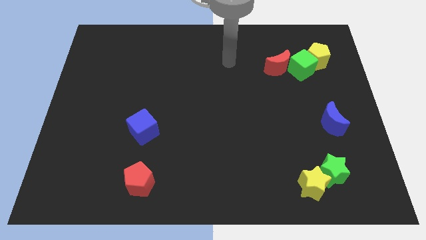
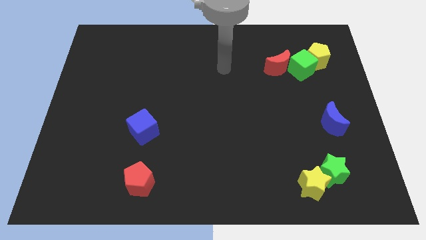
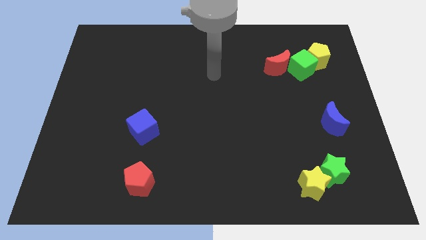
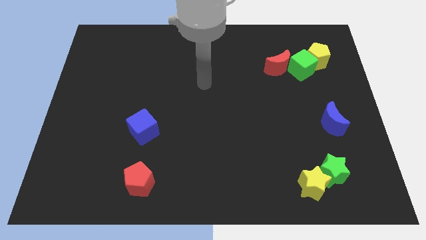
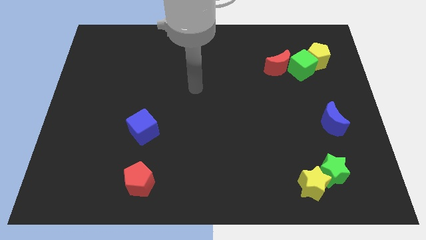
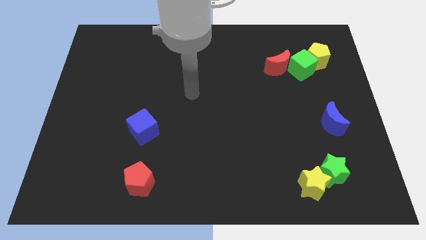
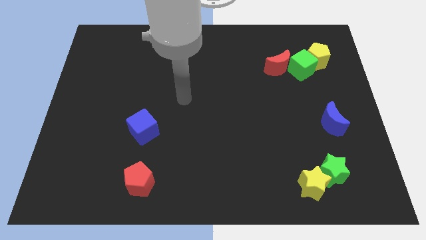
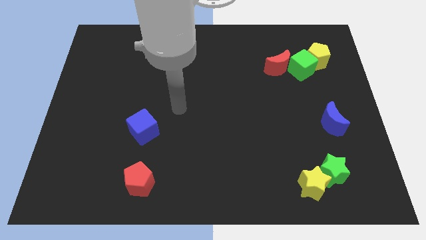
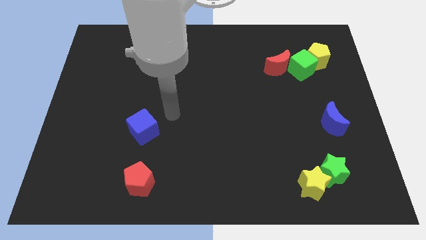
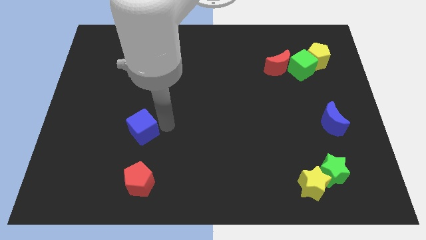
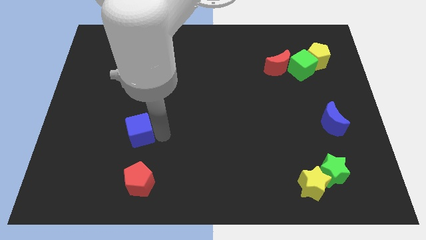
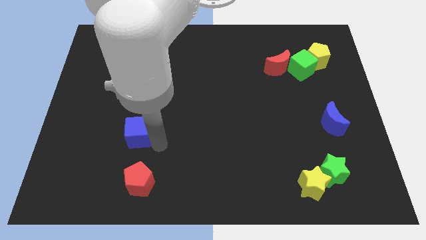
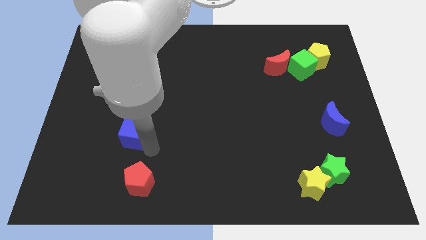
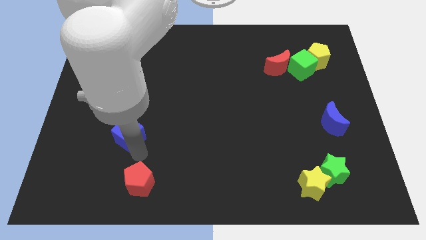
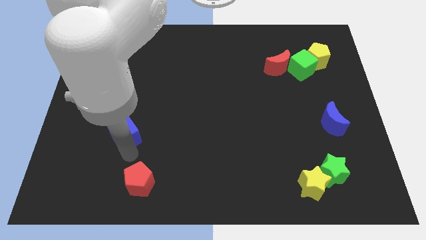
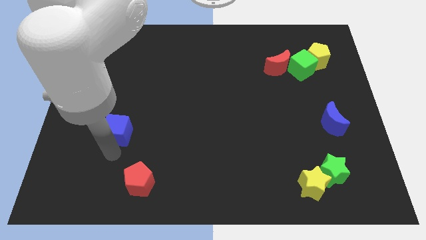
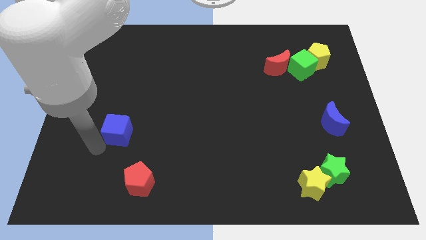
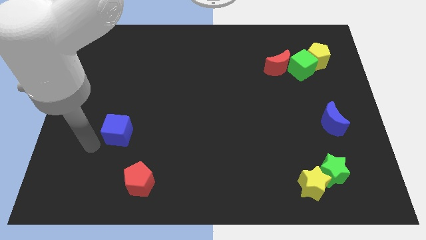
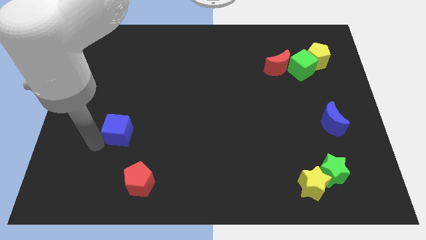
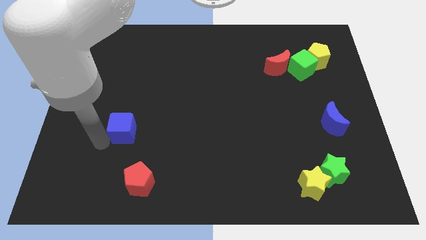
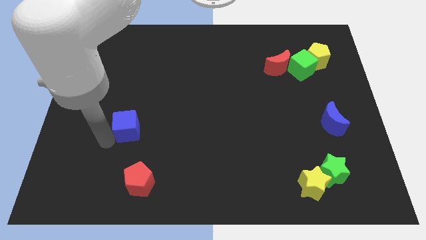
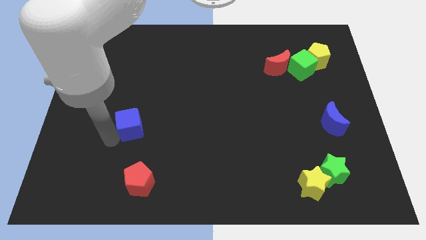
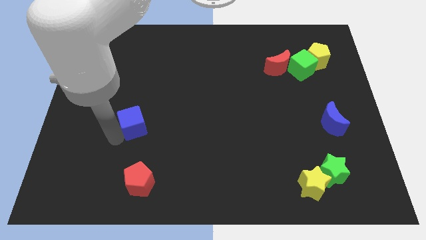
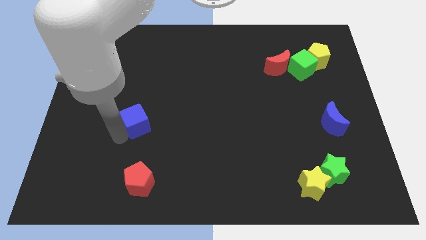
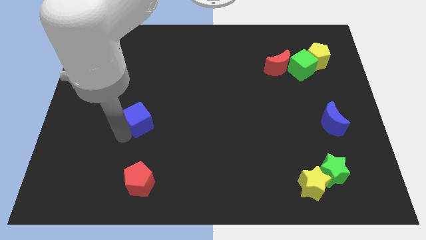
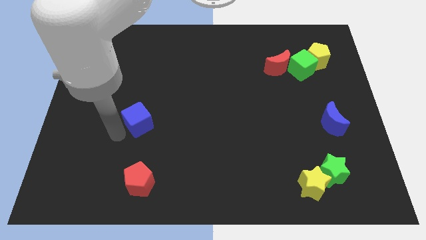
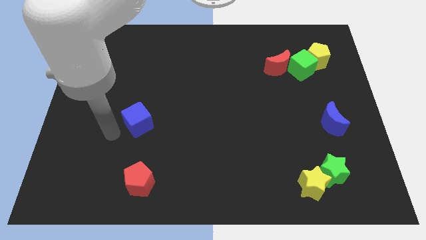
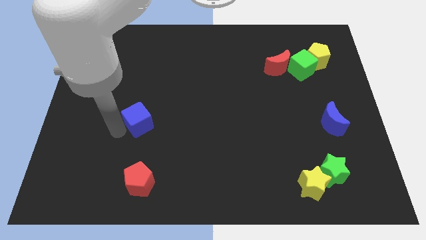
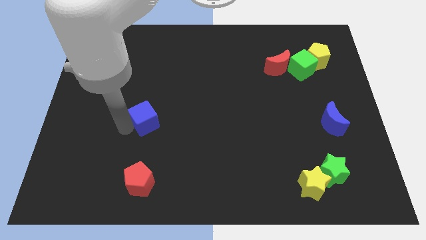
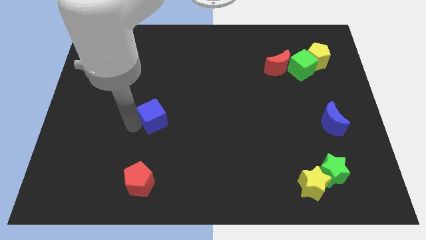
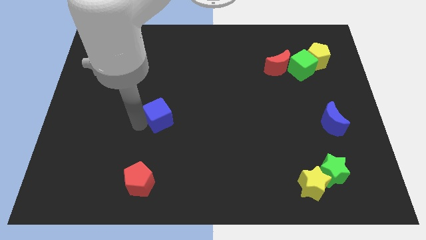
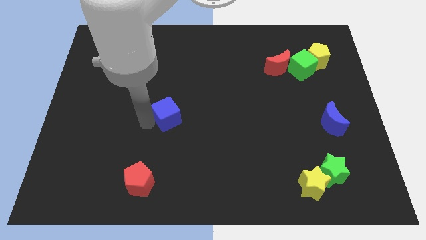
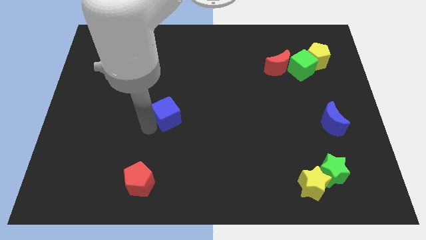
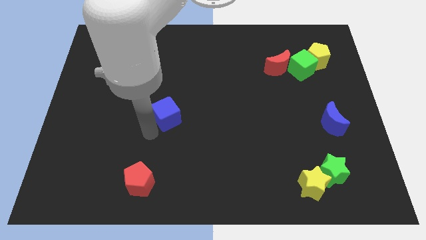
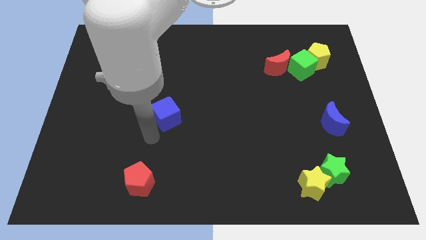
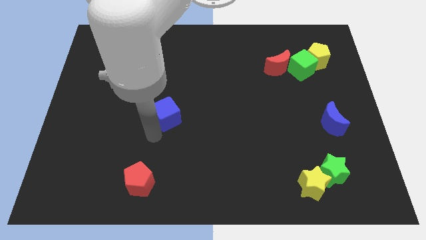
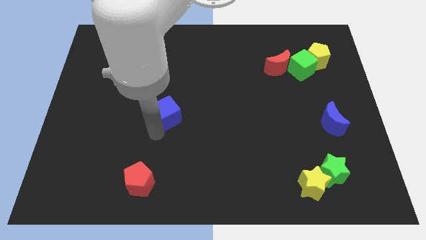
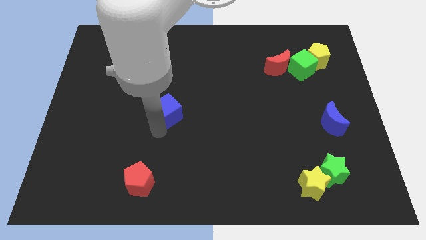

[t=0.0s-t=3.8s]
slightly push the blue cube diagonally upwards and to the right

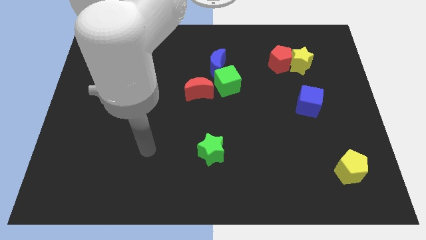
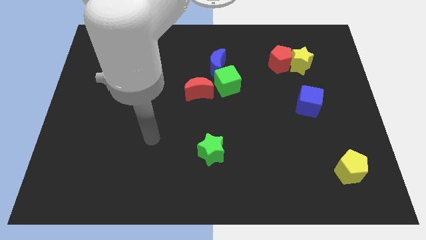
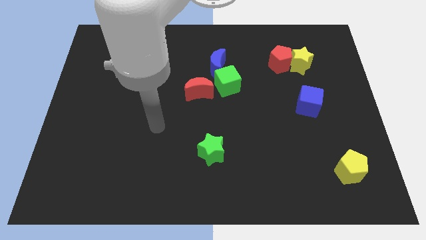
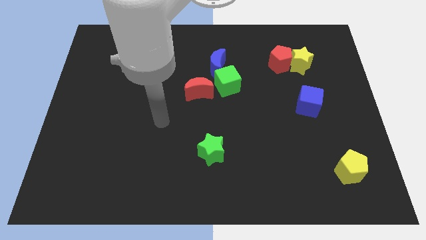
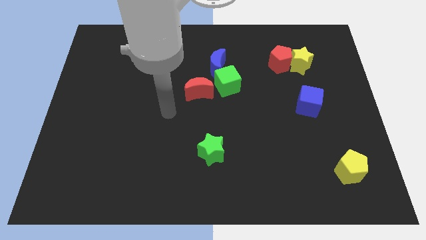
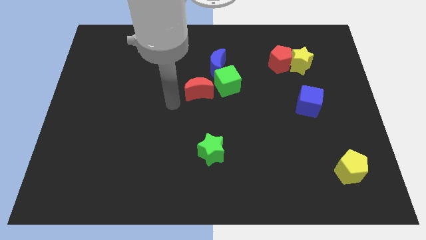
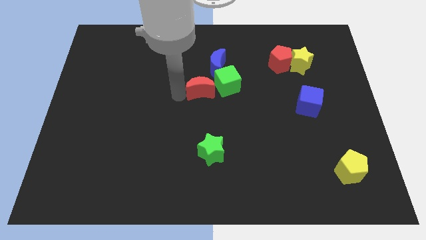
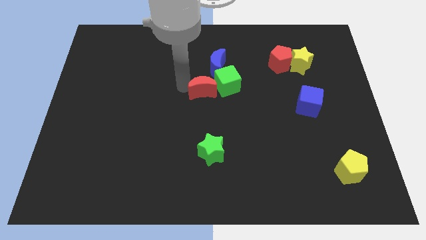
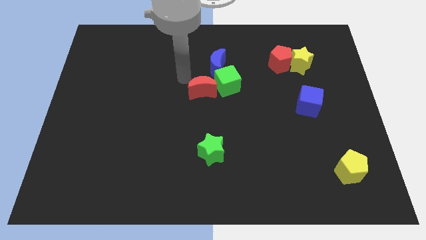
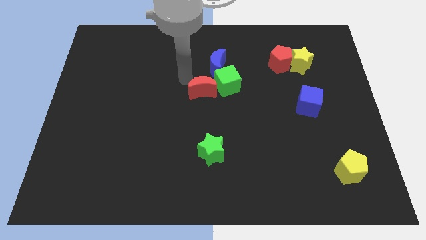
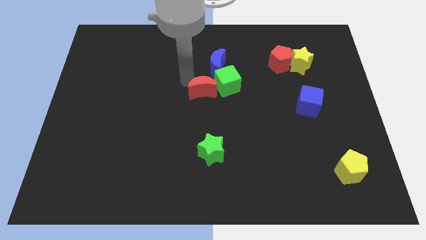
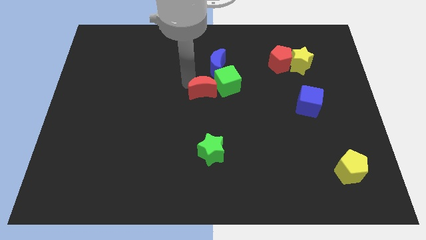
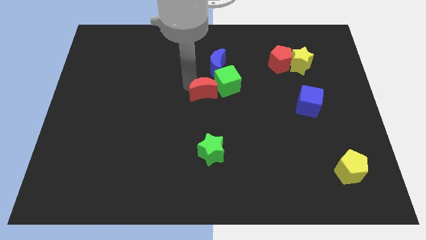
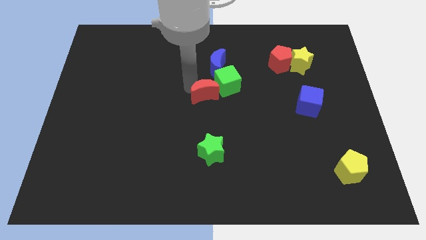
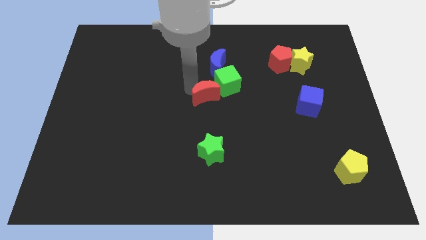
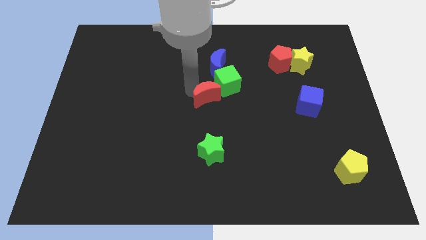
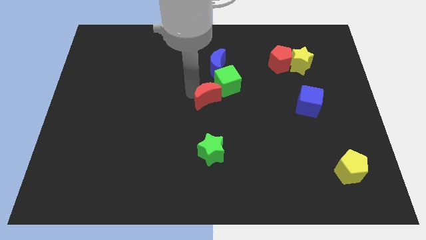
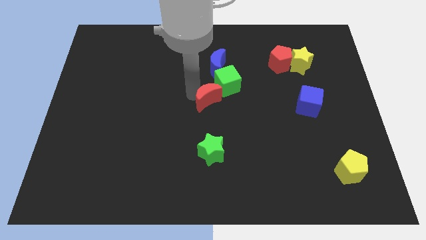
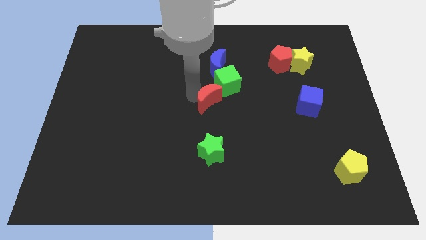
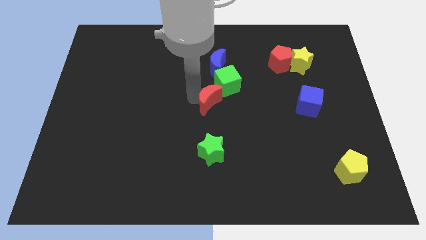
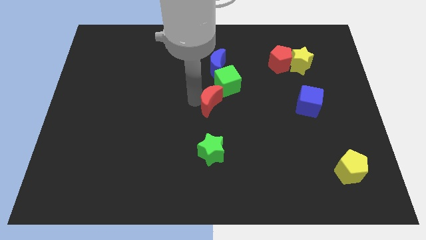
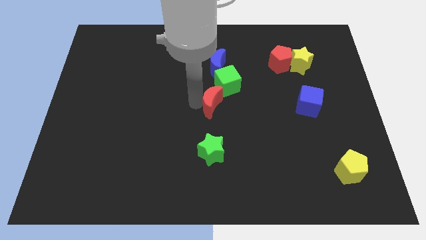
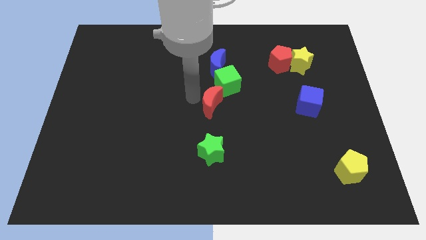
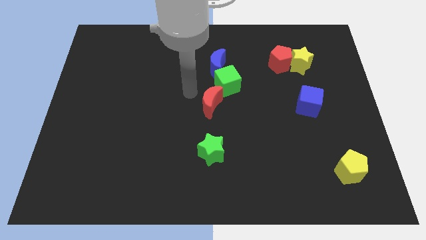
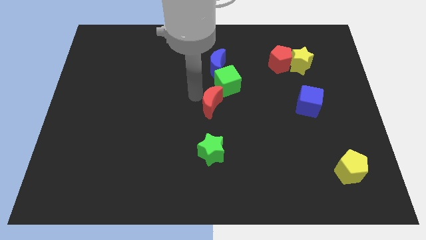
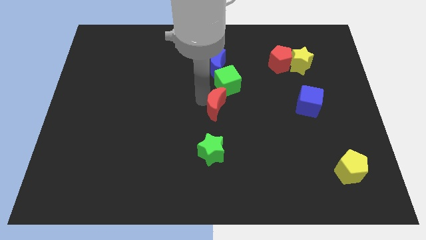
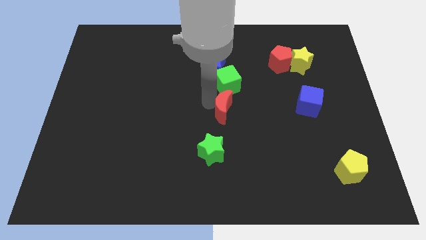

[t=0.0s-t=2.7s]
move the red moon diagonally down and to the right a little bit

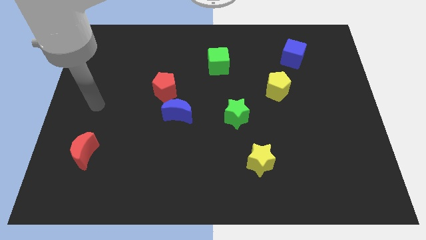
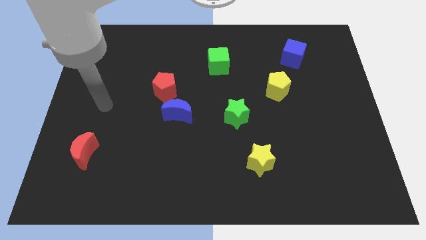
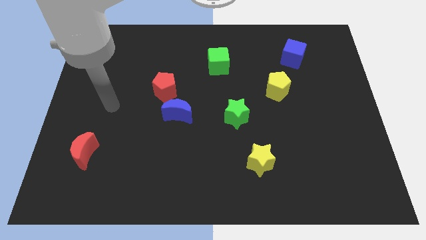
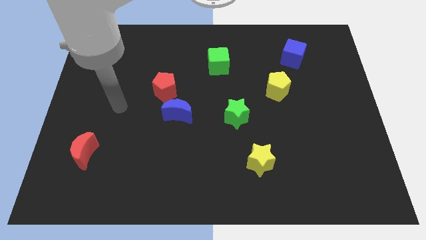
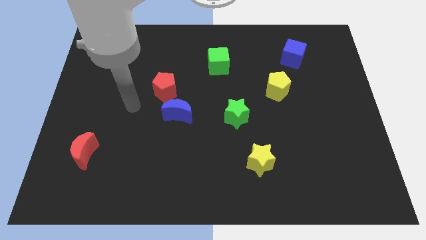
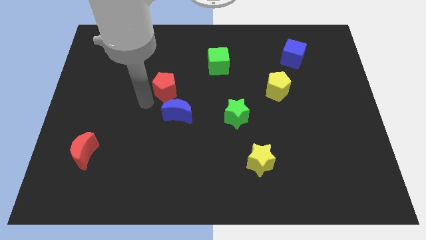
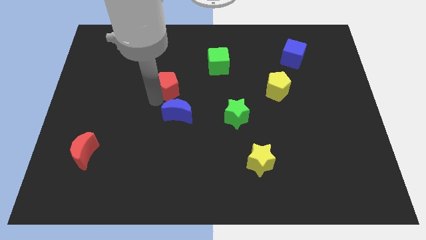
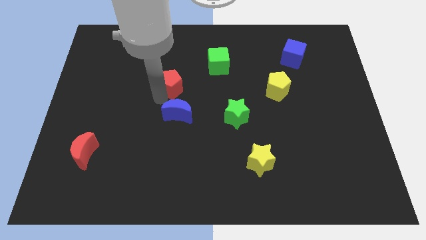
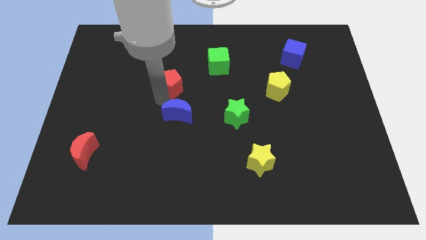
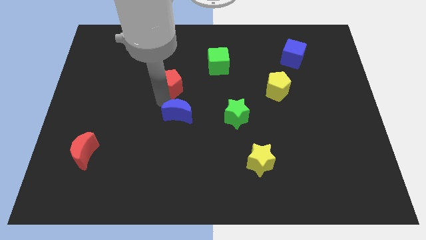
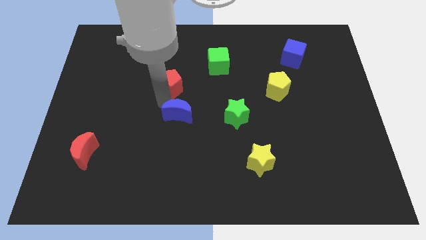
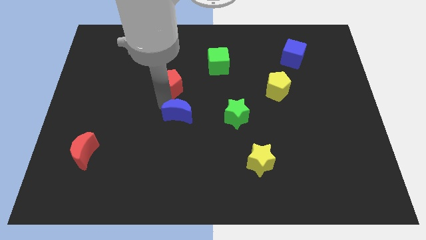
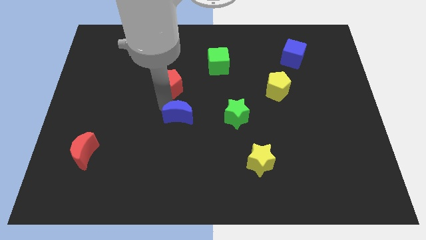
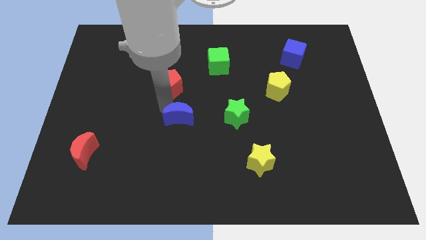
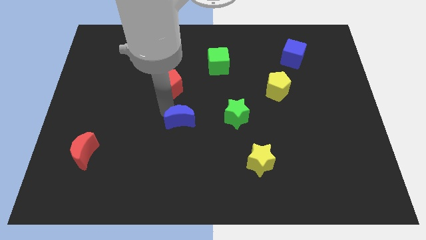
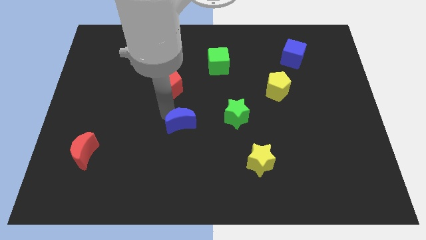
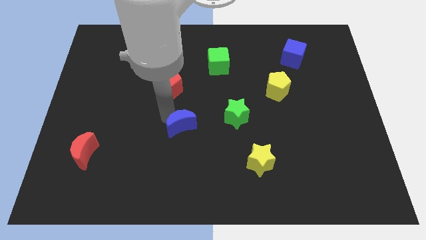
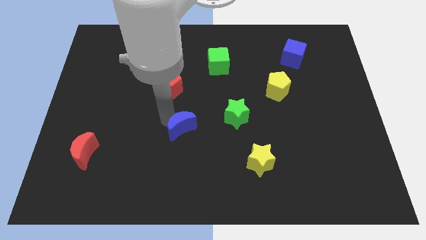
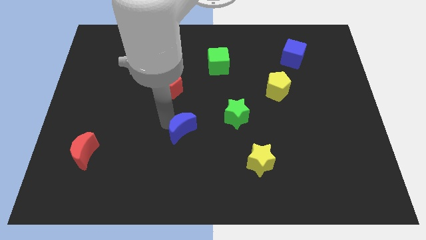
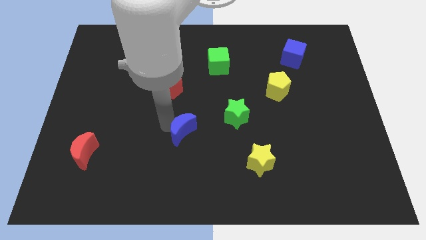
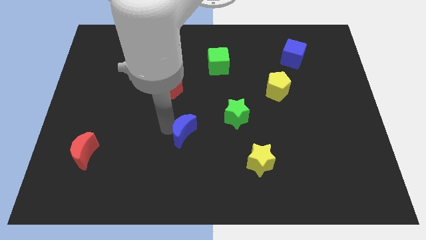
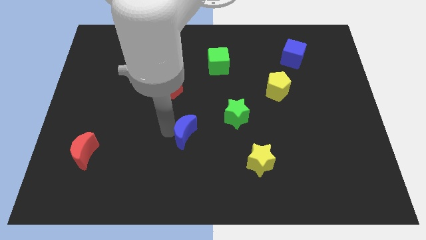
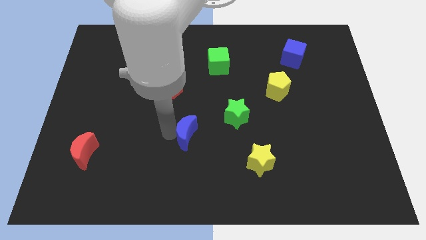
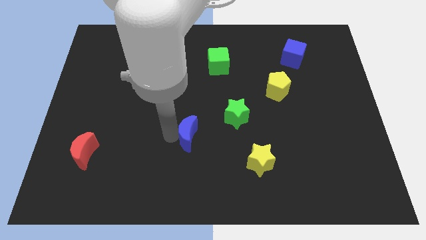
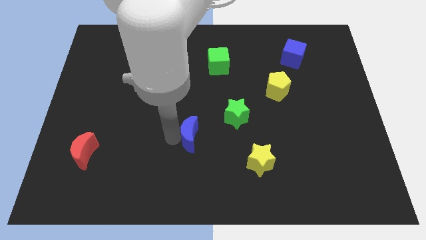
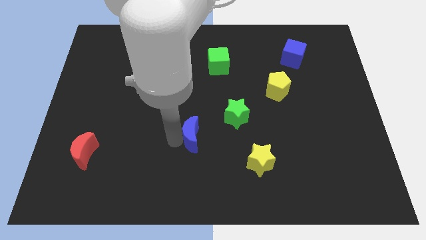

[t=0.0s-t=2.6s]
slide the blue moon a bit diagonally down and right
